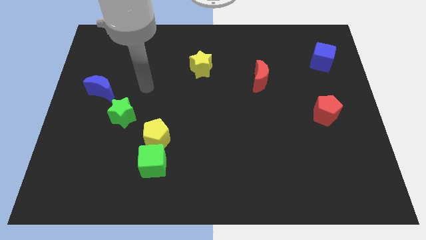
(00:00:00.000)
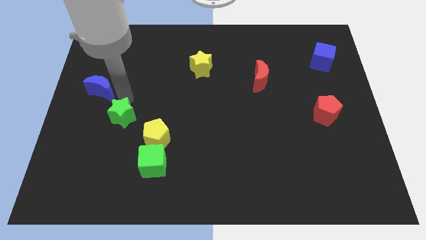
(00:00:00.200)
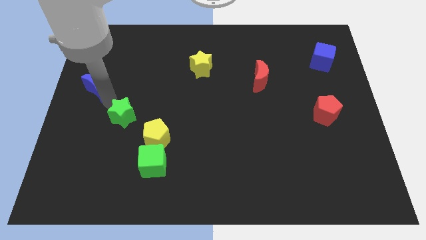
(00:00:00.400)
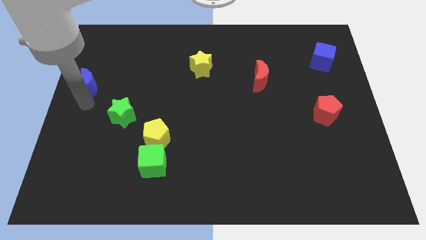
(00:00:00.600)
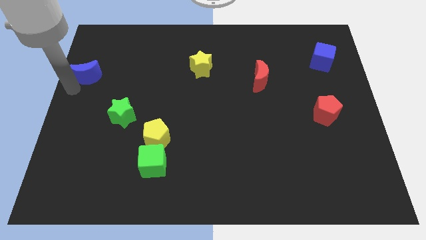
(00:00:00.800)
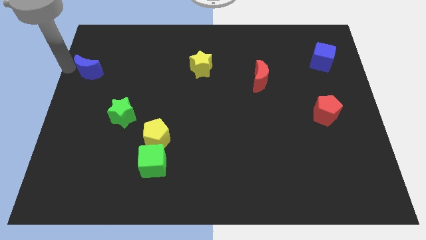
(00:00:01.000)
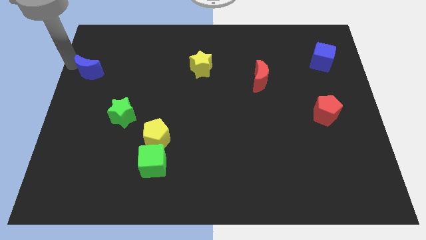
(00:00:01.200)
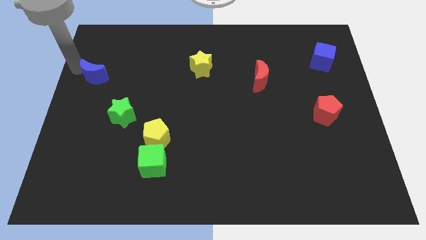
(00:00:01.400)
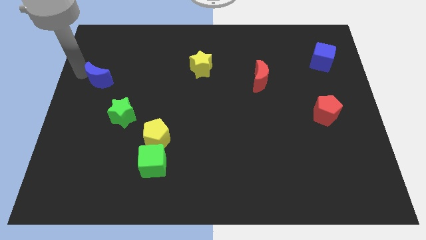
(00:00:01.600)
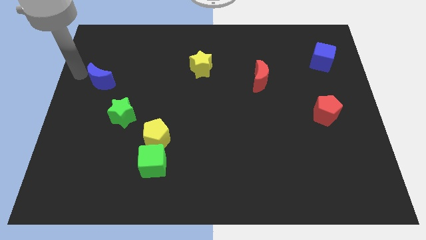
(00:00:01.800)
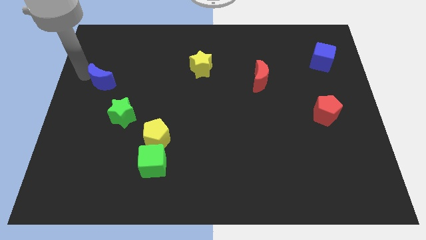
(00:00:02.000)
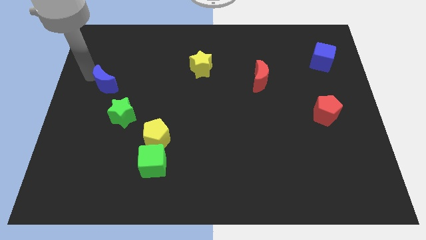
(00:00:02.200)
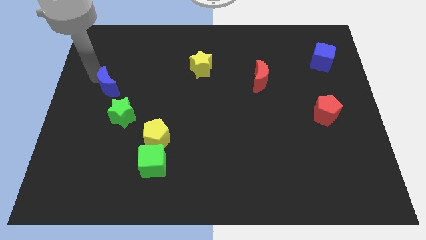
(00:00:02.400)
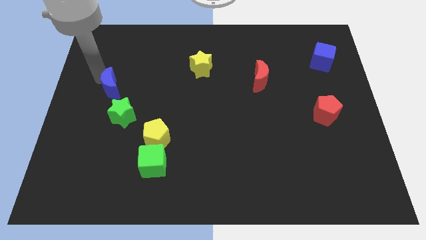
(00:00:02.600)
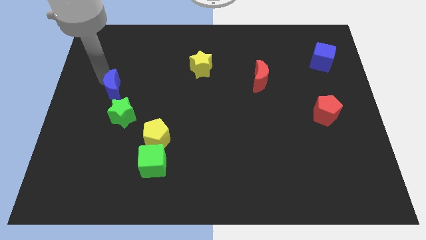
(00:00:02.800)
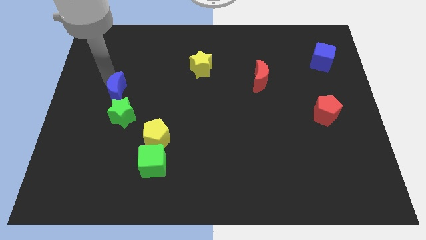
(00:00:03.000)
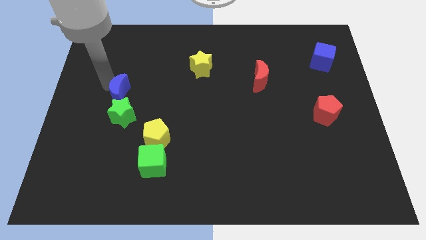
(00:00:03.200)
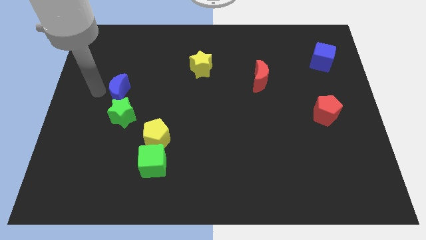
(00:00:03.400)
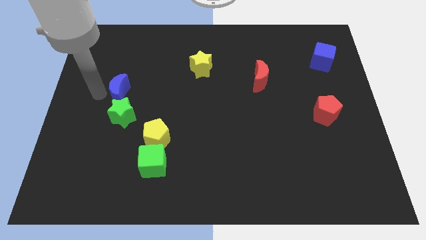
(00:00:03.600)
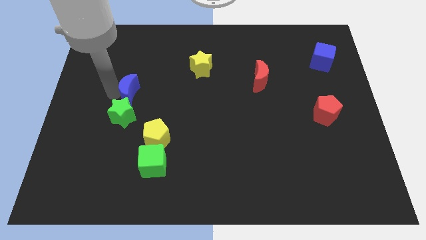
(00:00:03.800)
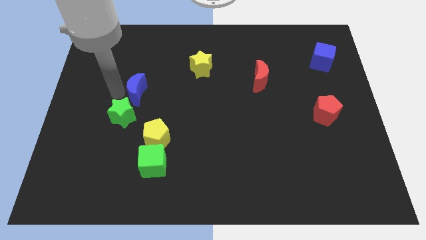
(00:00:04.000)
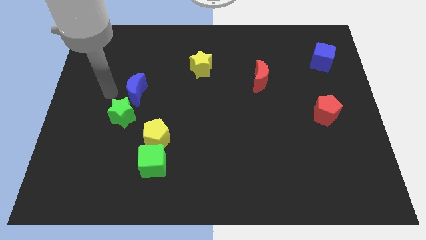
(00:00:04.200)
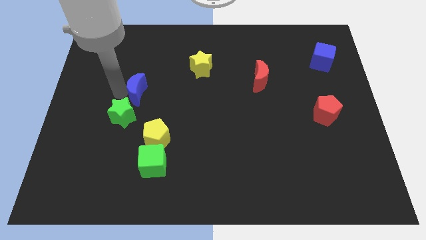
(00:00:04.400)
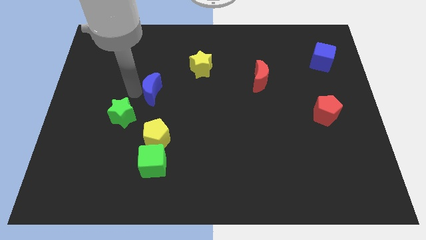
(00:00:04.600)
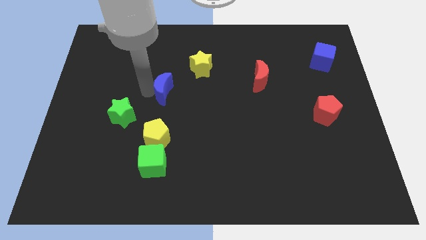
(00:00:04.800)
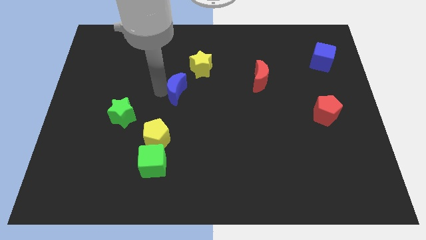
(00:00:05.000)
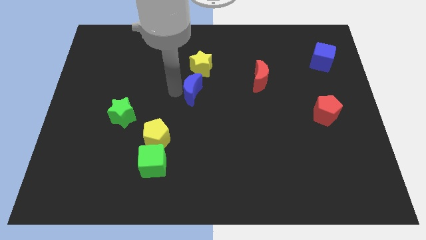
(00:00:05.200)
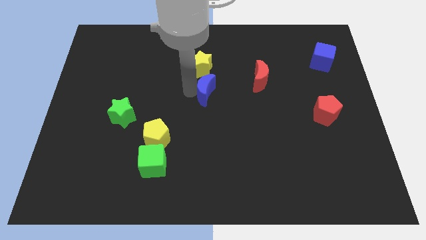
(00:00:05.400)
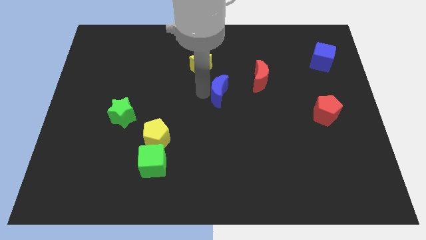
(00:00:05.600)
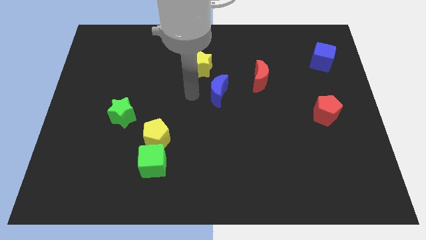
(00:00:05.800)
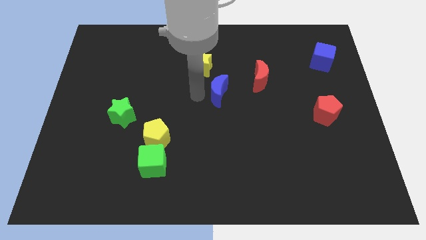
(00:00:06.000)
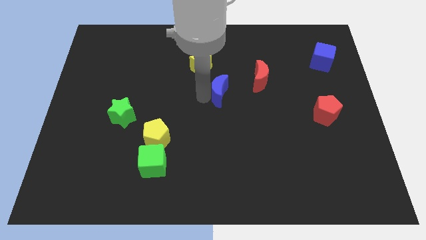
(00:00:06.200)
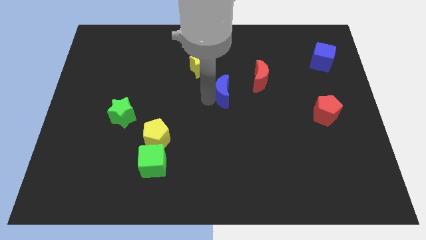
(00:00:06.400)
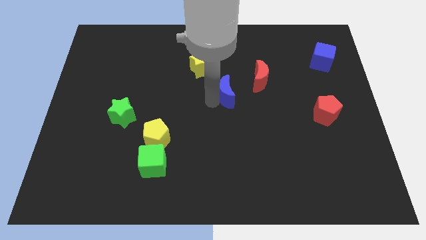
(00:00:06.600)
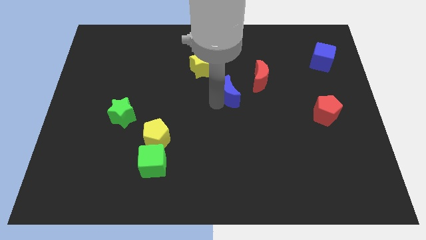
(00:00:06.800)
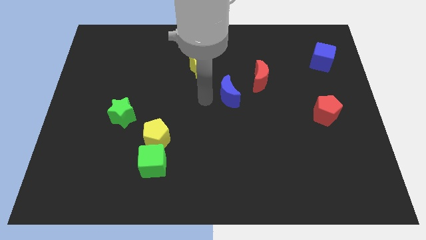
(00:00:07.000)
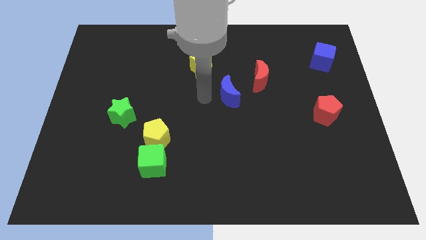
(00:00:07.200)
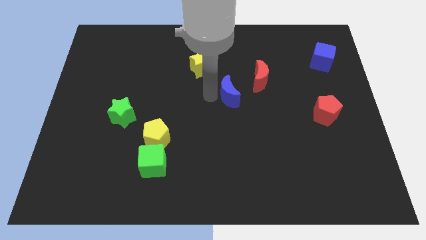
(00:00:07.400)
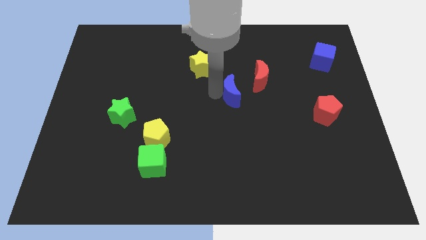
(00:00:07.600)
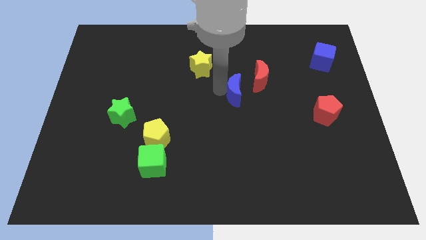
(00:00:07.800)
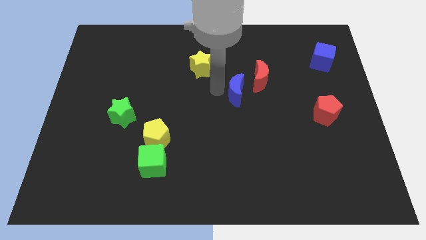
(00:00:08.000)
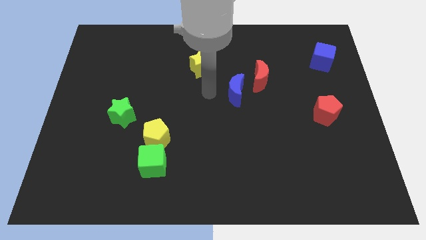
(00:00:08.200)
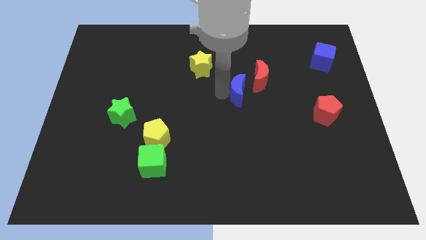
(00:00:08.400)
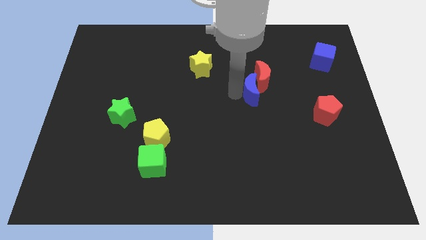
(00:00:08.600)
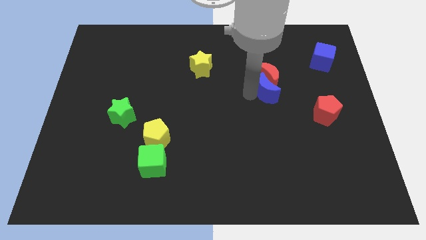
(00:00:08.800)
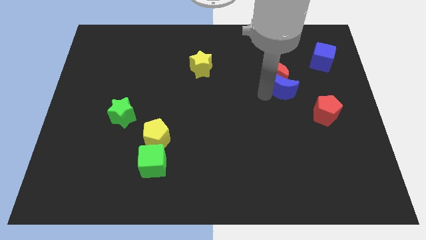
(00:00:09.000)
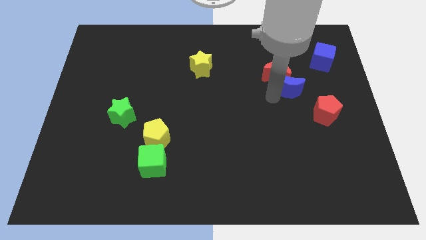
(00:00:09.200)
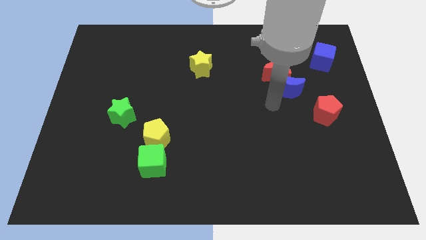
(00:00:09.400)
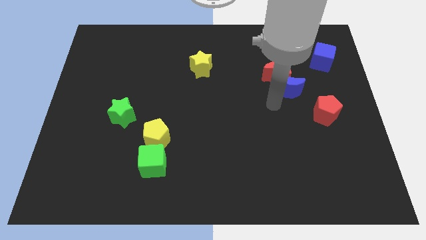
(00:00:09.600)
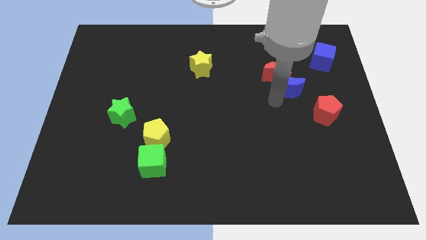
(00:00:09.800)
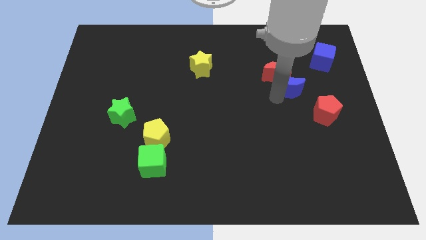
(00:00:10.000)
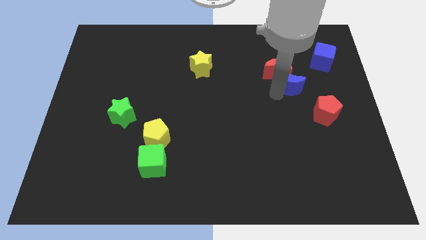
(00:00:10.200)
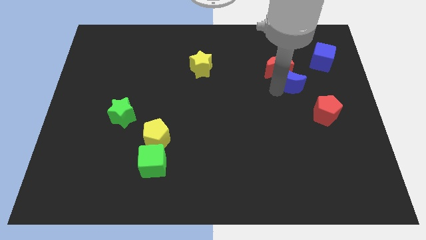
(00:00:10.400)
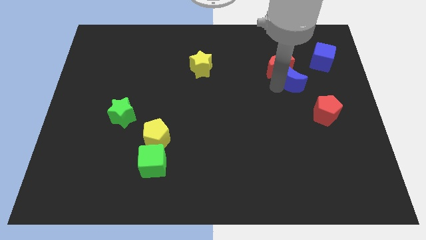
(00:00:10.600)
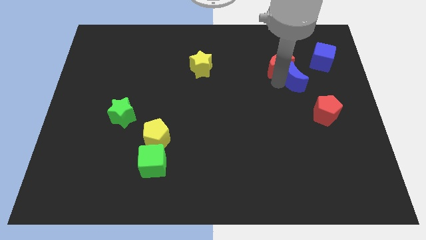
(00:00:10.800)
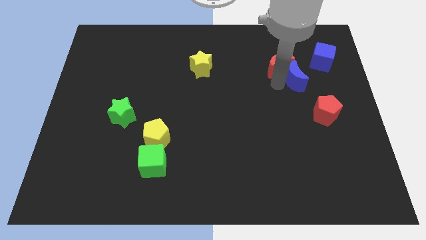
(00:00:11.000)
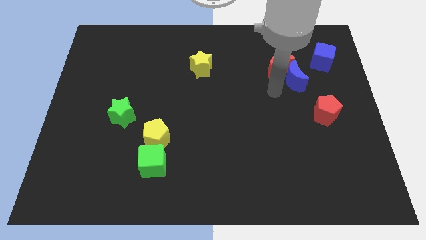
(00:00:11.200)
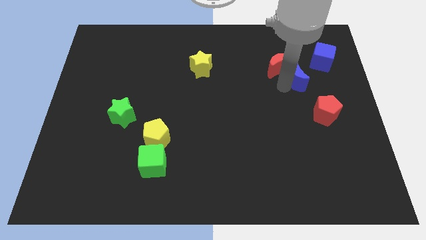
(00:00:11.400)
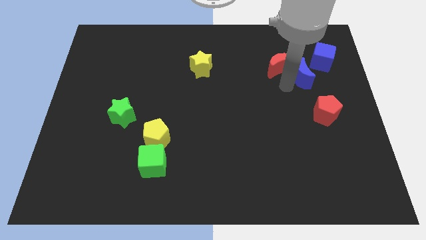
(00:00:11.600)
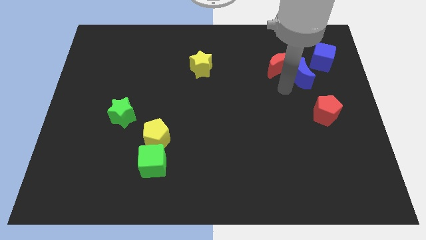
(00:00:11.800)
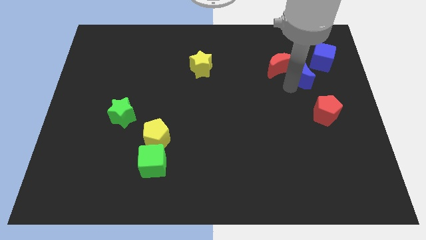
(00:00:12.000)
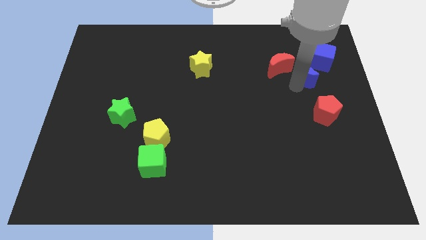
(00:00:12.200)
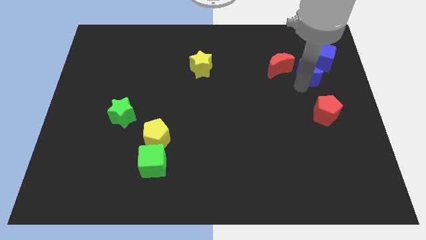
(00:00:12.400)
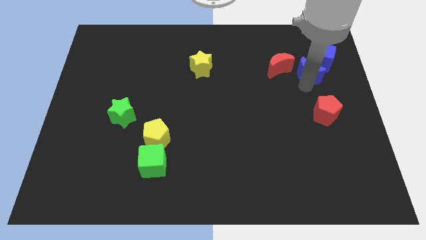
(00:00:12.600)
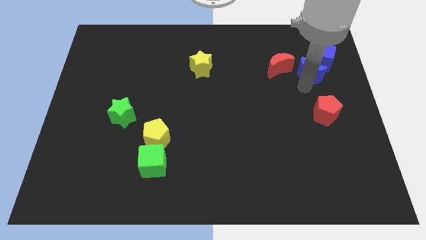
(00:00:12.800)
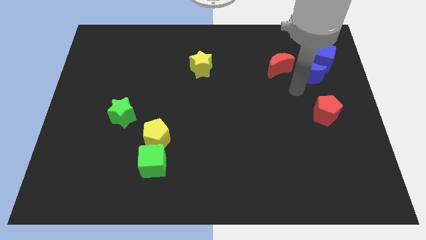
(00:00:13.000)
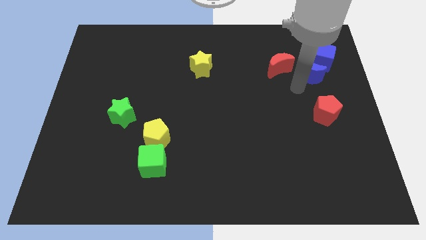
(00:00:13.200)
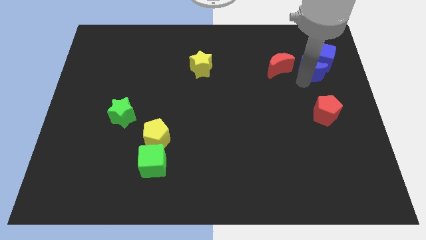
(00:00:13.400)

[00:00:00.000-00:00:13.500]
slide the blue moon to the blue cube
